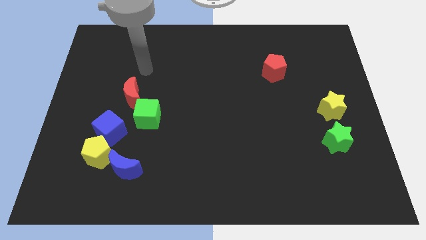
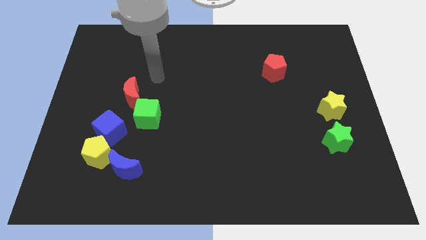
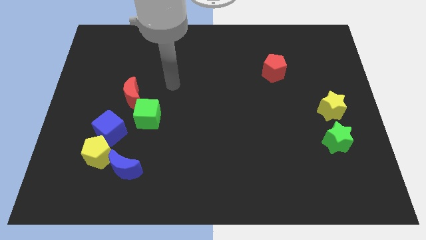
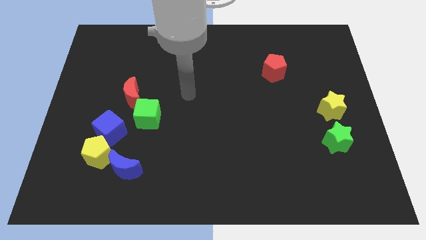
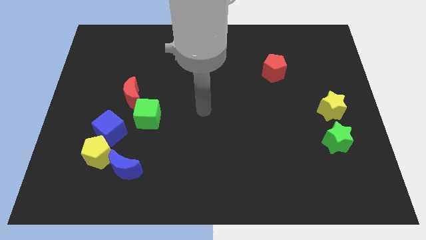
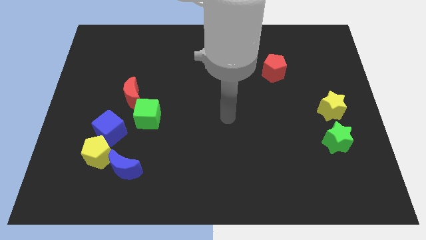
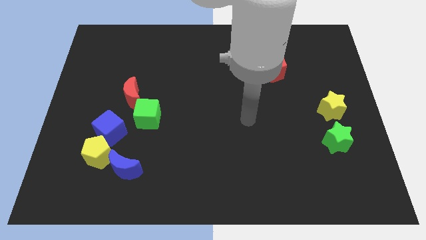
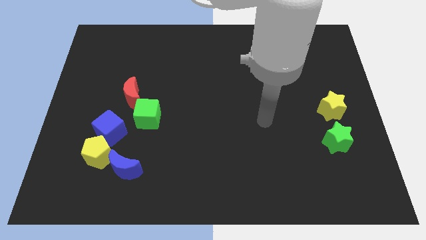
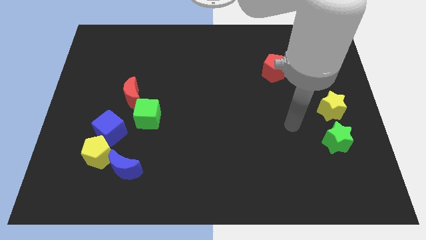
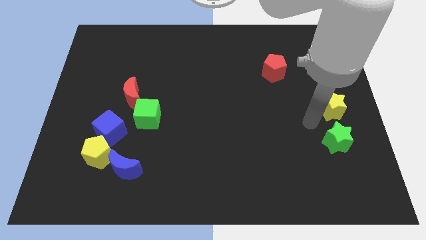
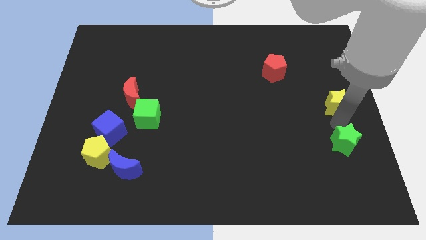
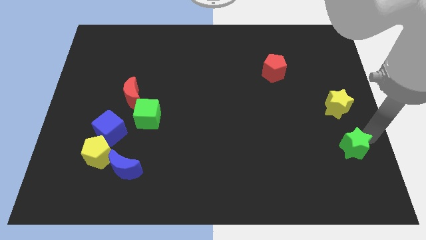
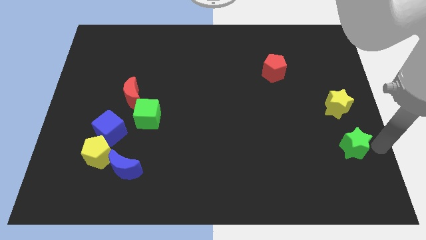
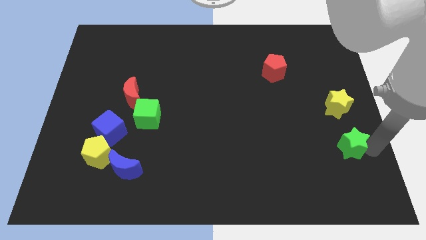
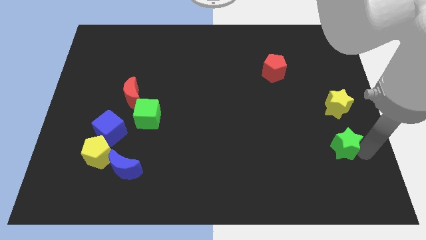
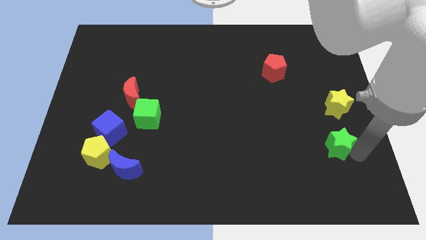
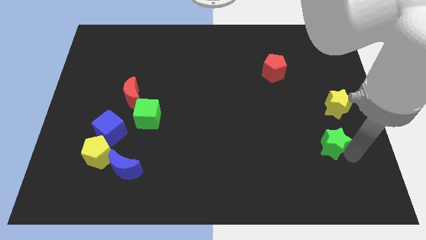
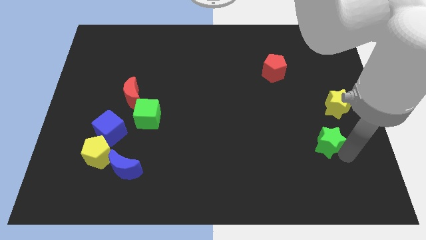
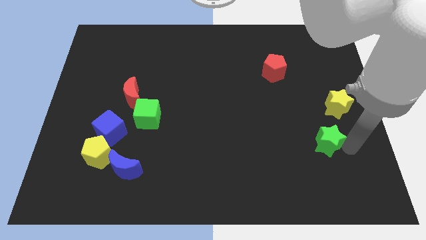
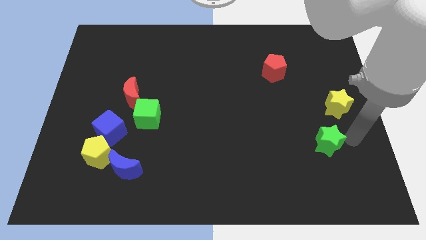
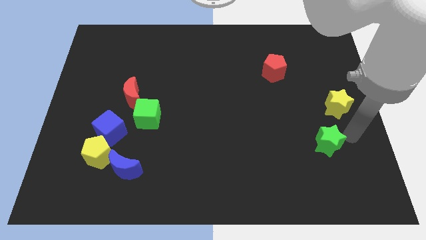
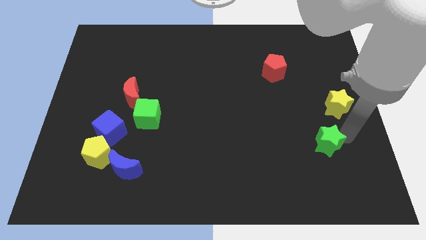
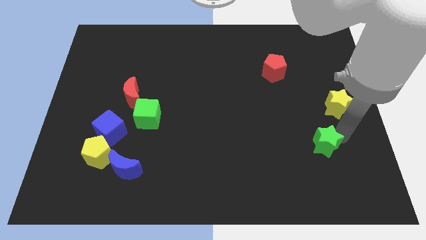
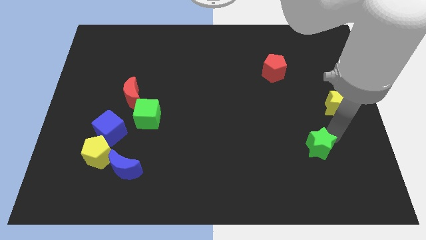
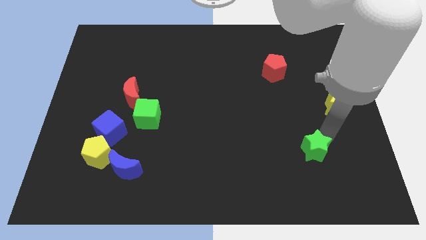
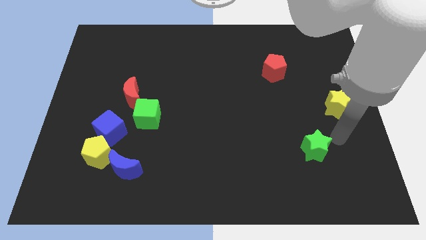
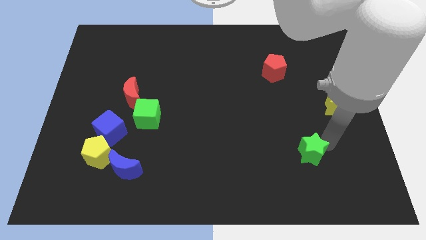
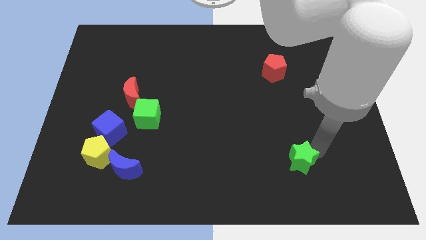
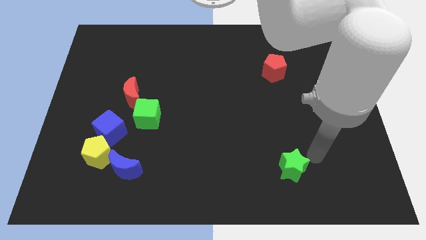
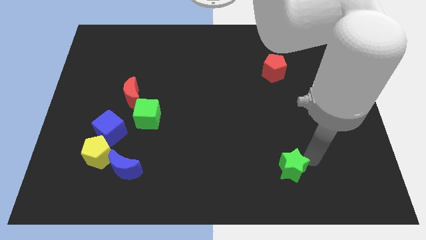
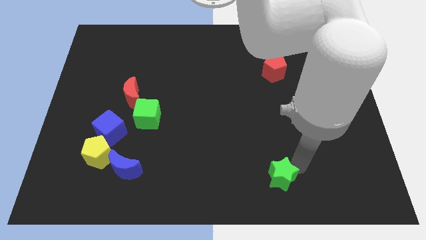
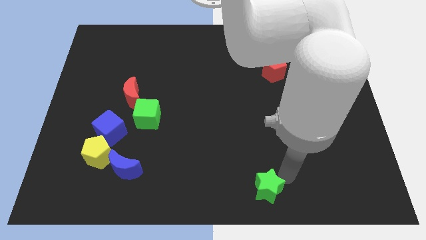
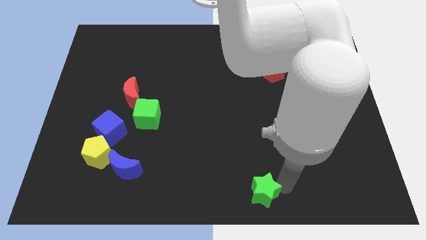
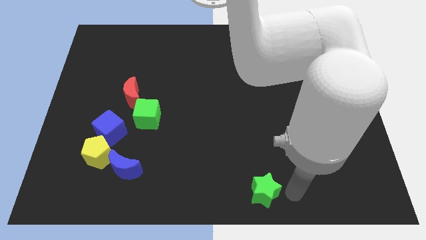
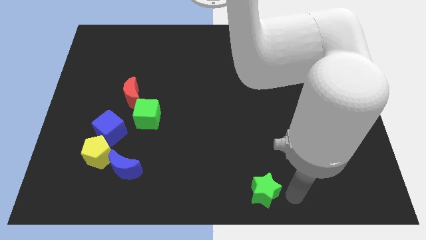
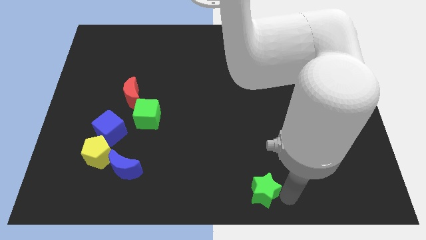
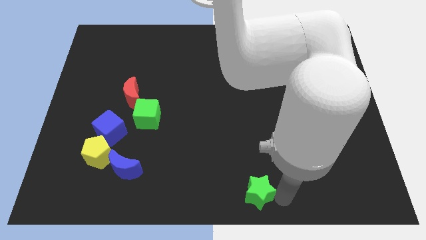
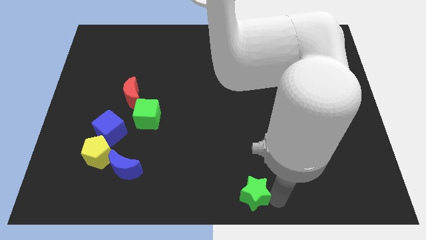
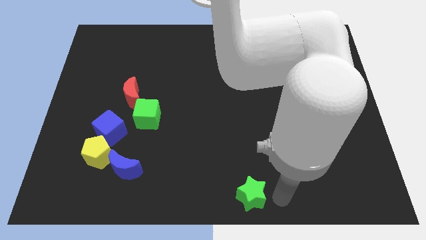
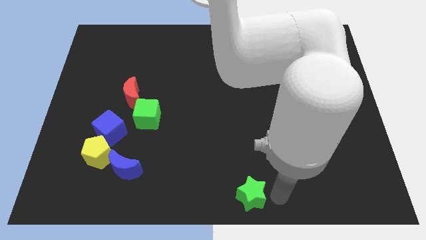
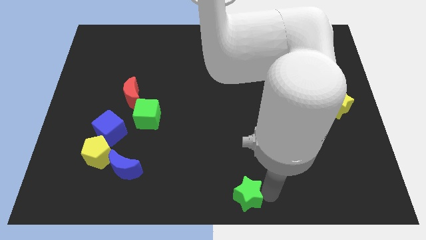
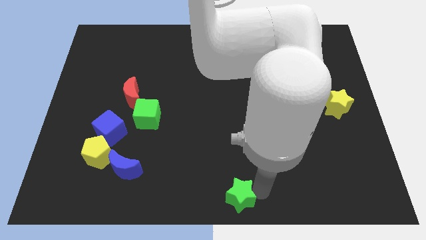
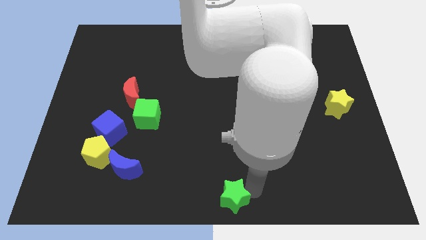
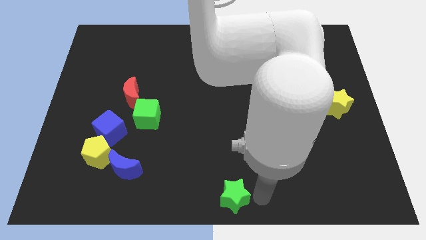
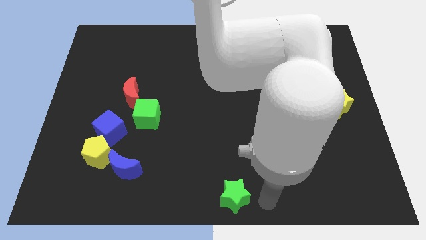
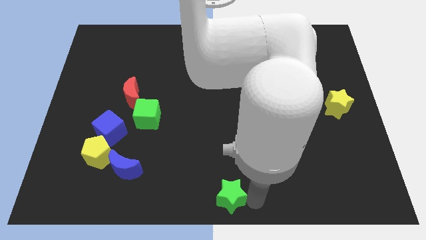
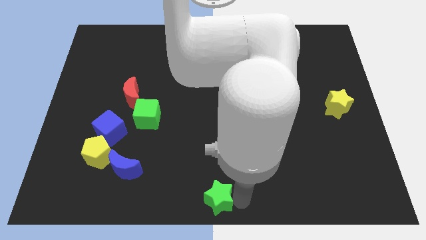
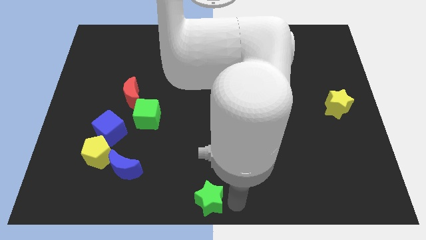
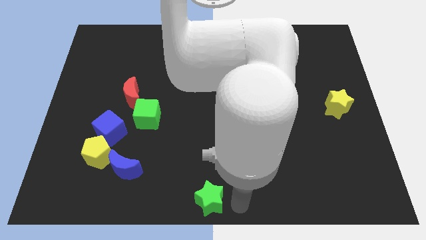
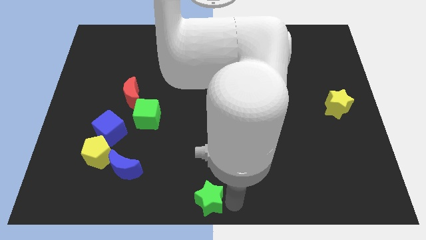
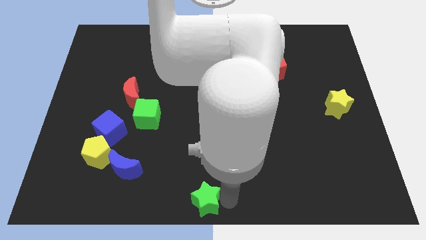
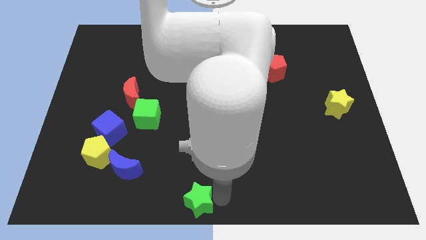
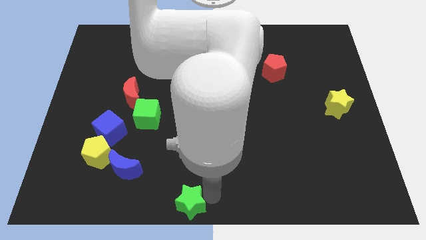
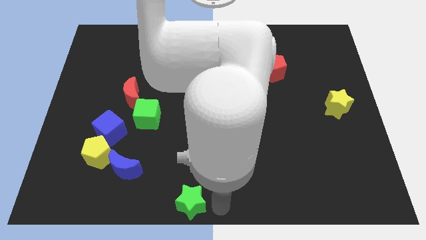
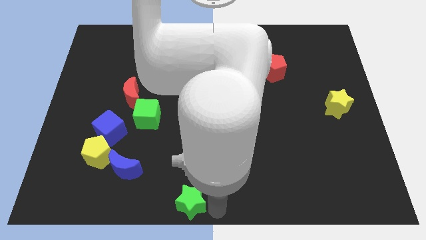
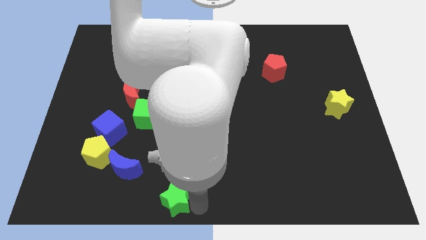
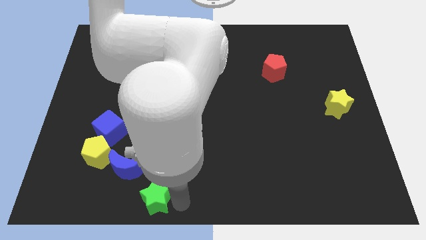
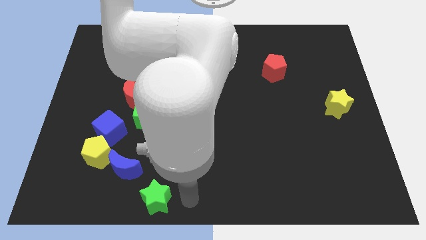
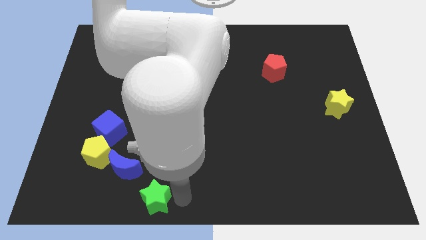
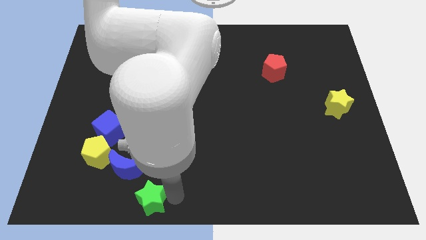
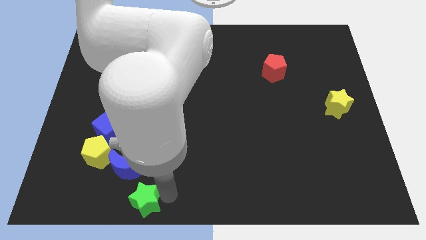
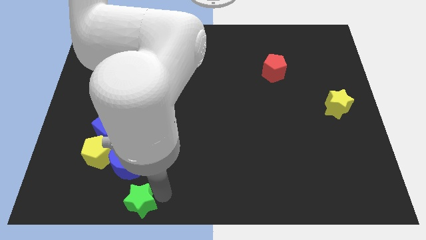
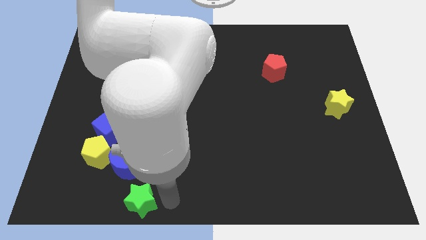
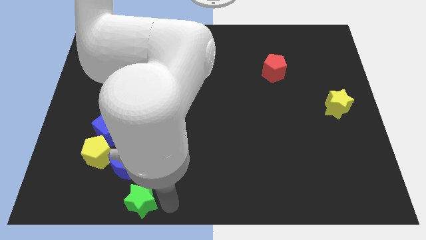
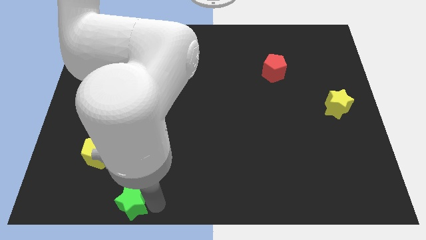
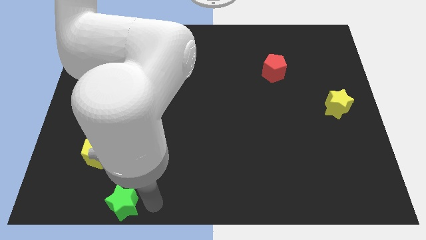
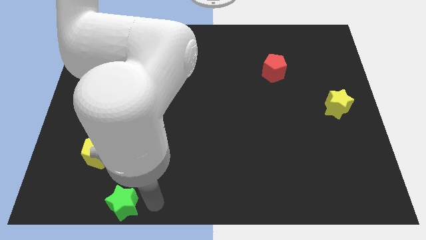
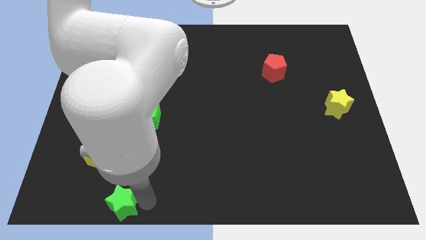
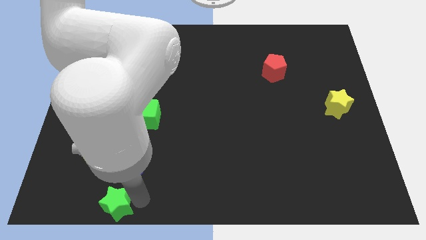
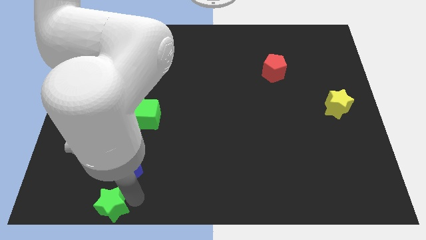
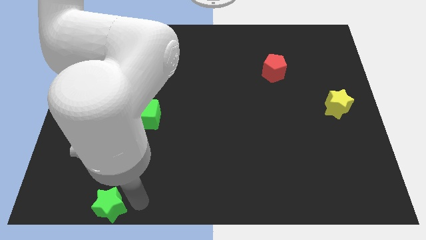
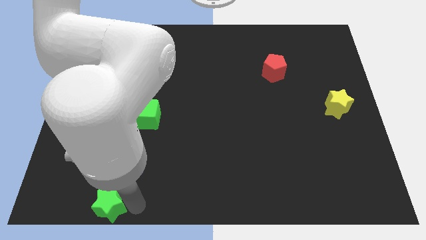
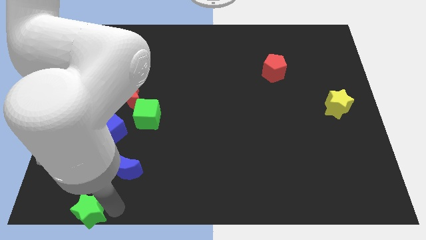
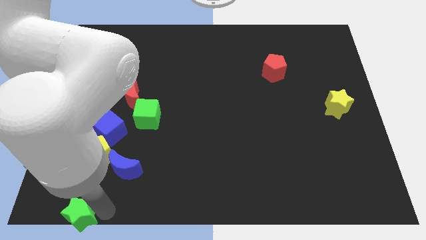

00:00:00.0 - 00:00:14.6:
slide the green star to the bottom left corner
